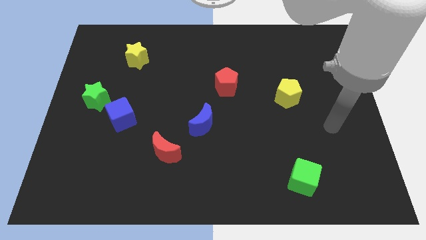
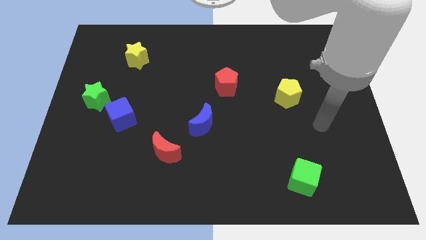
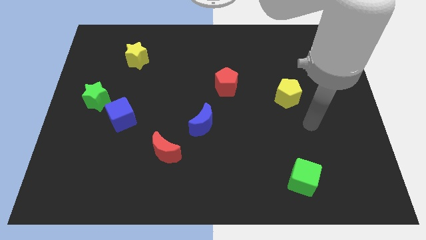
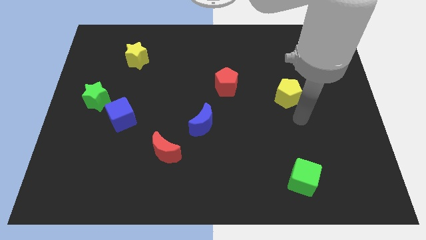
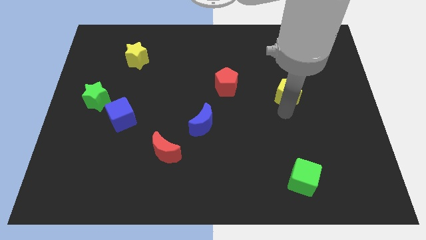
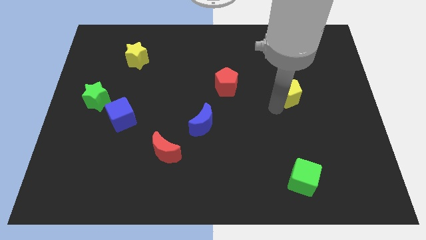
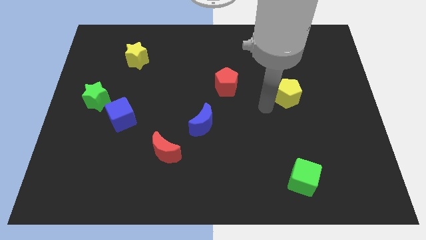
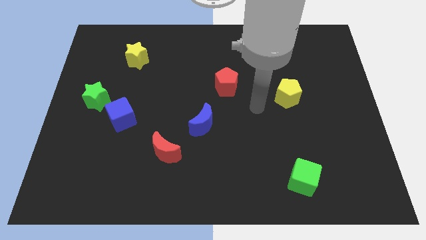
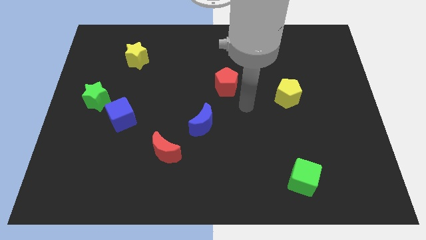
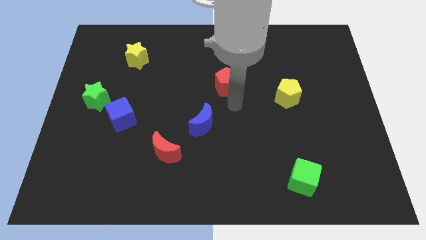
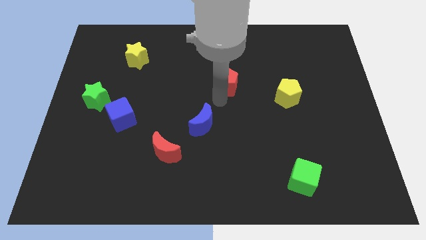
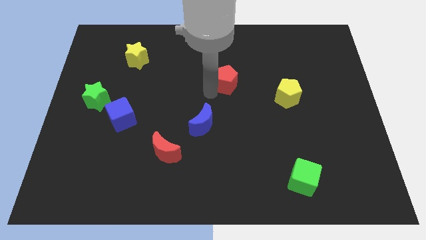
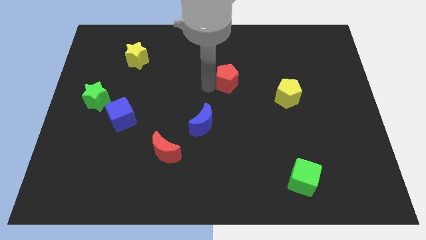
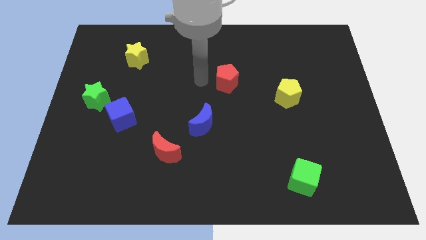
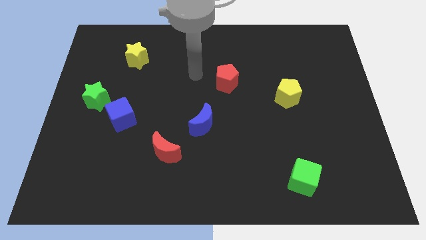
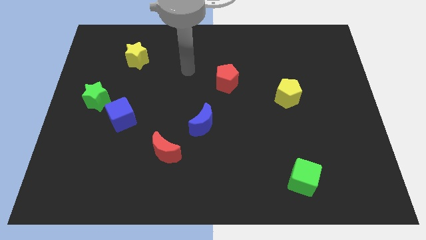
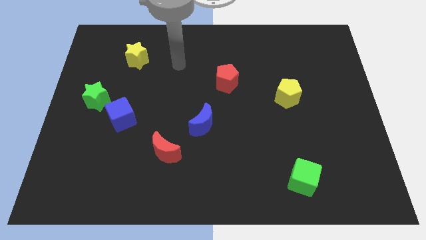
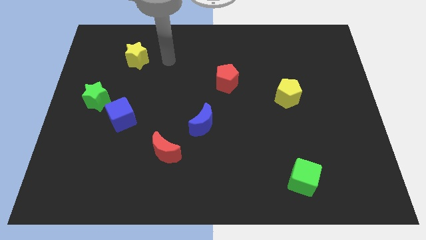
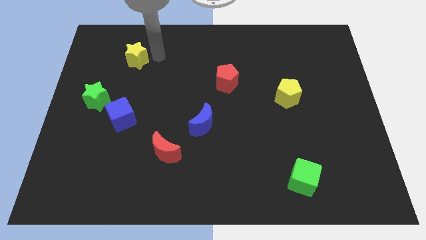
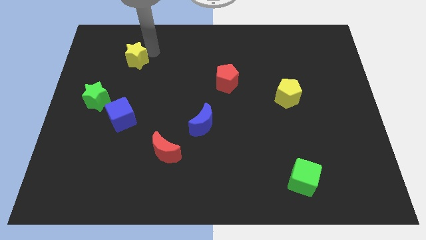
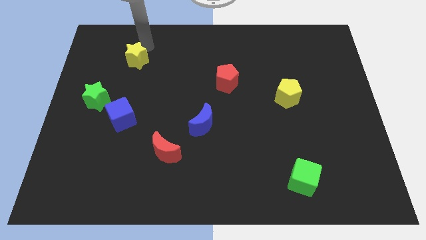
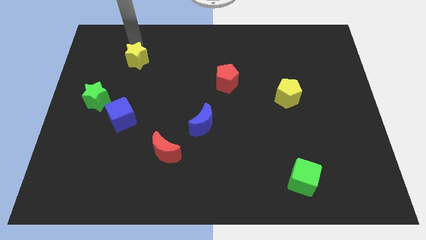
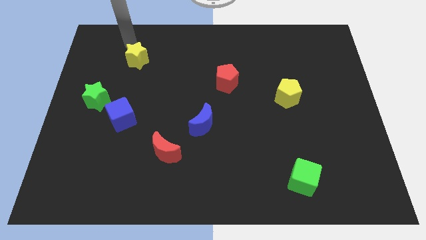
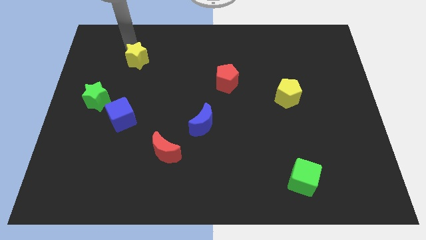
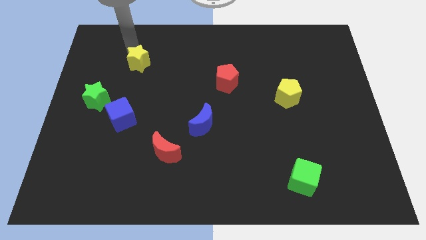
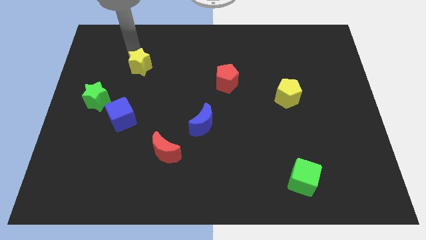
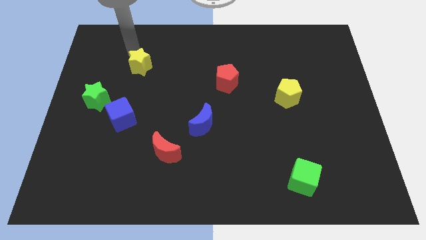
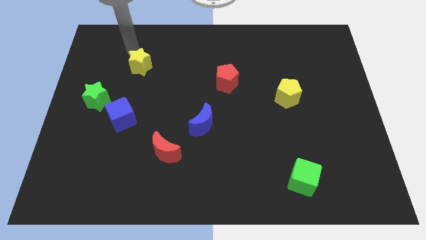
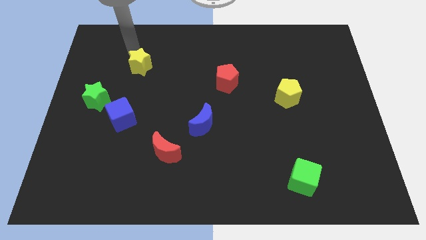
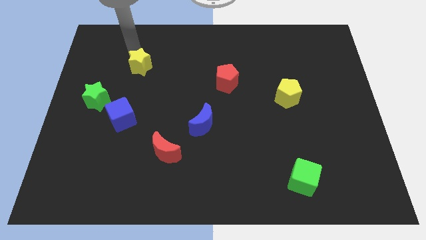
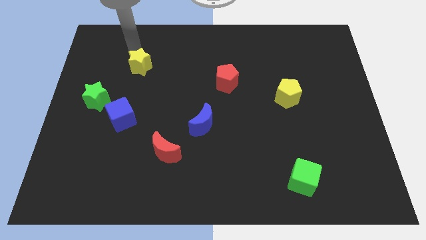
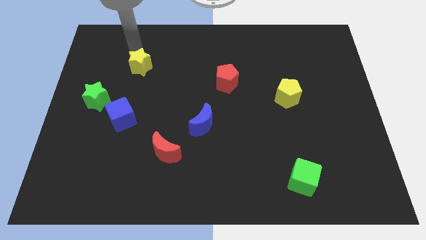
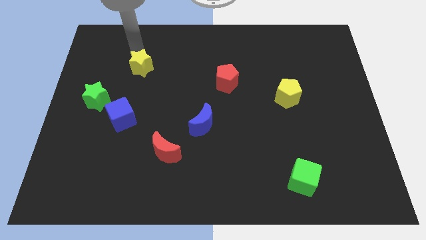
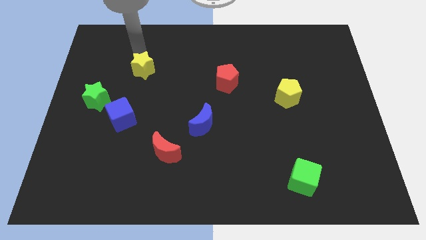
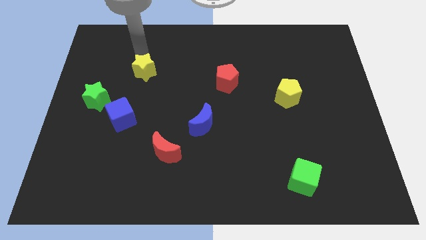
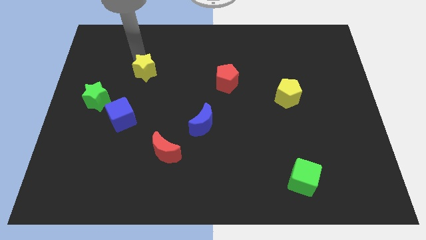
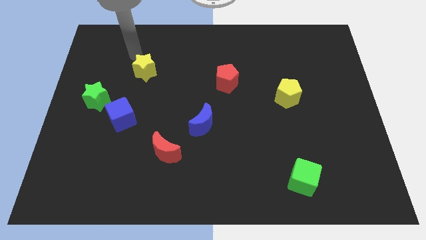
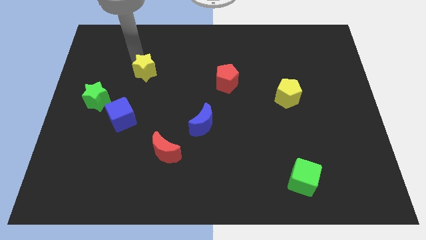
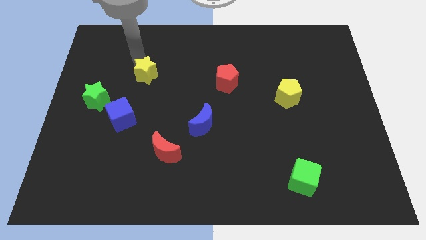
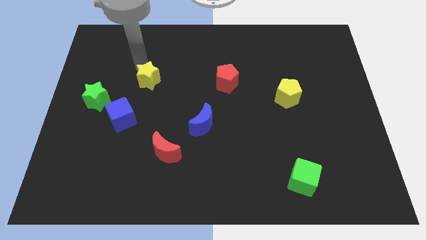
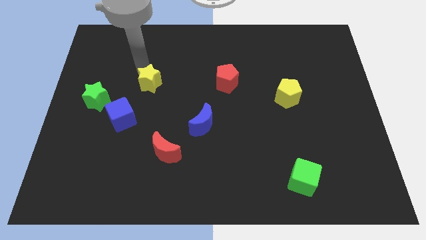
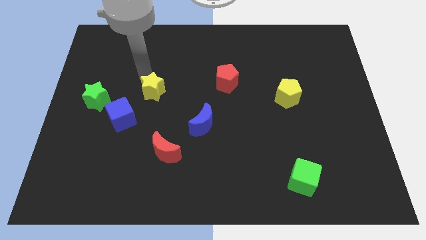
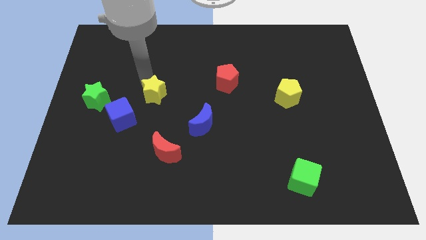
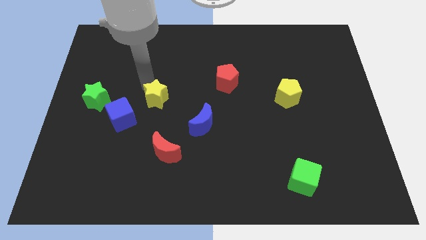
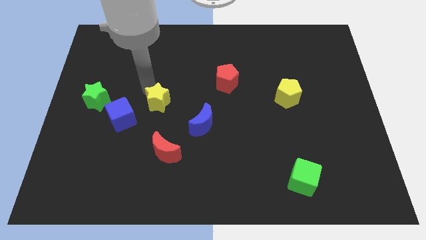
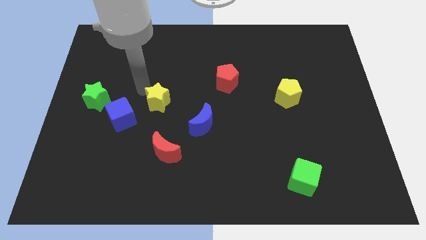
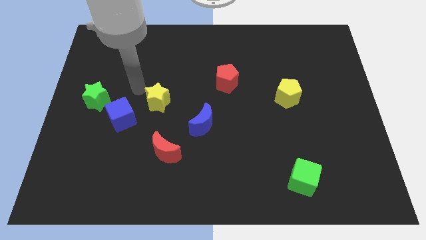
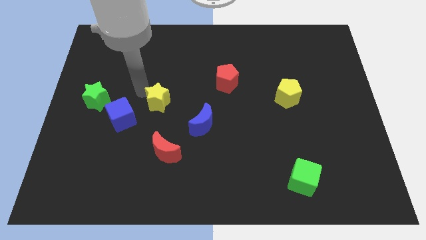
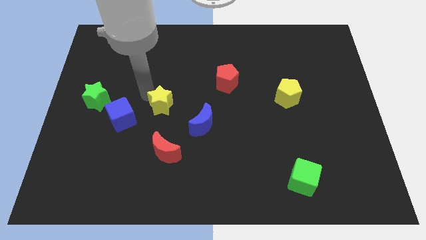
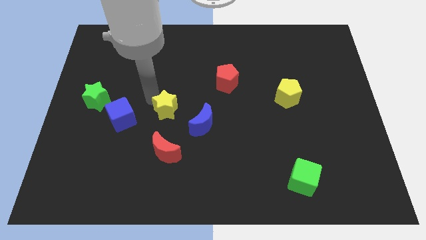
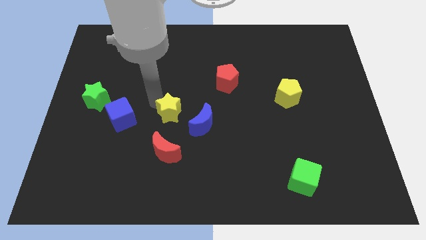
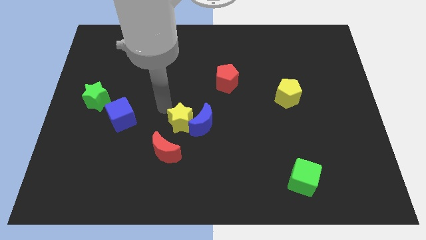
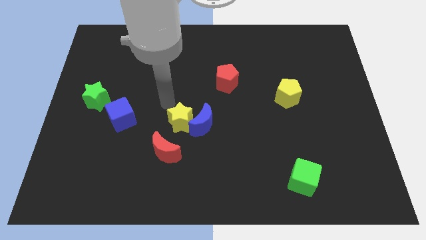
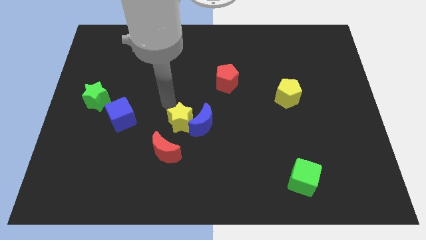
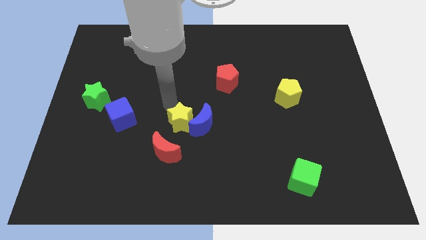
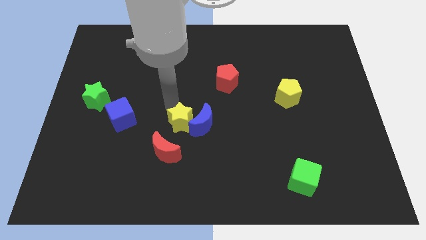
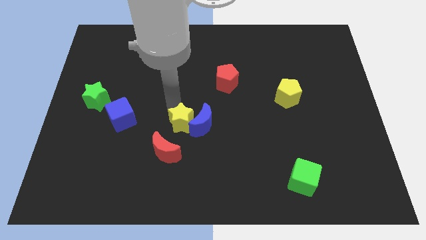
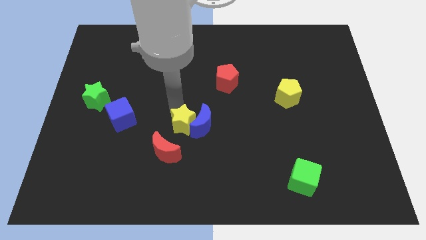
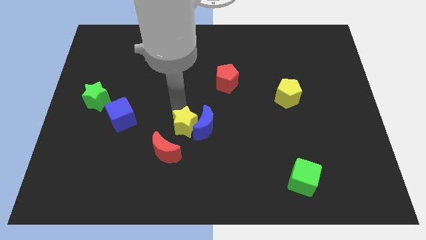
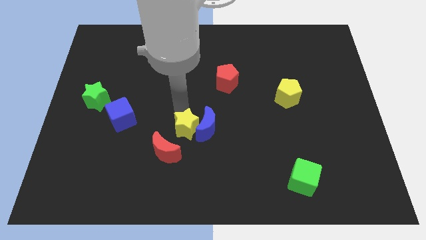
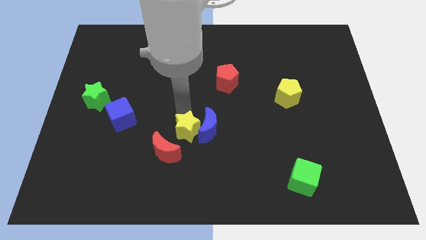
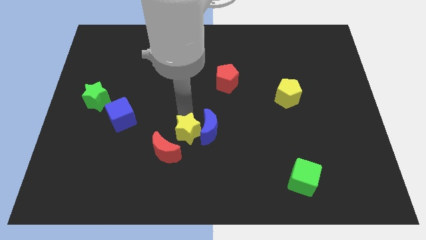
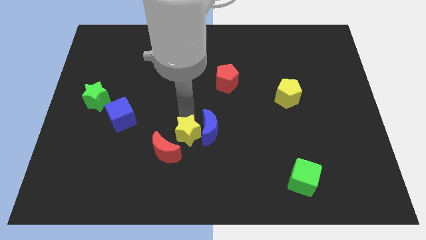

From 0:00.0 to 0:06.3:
put the yellow star just right of the red moon

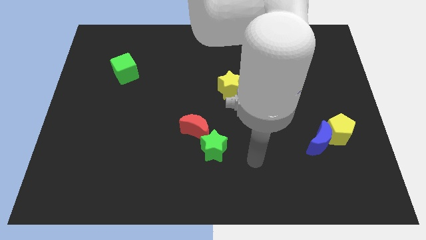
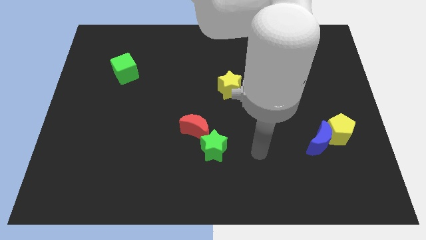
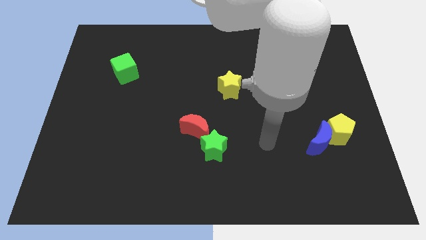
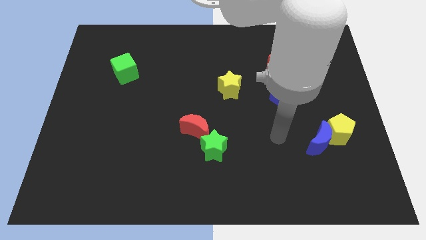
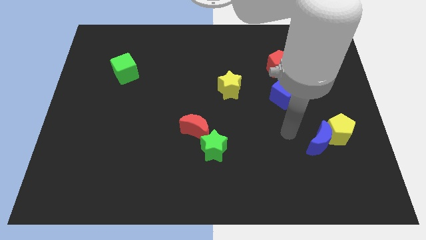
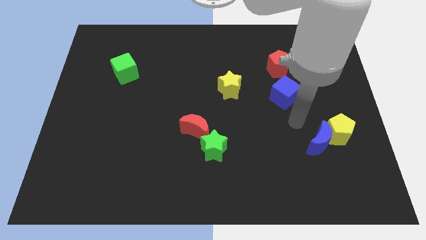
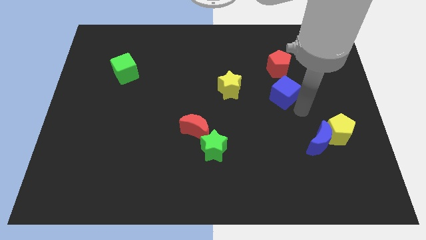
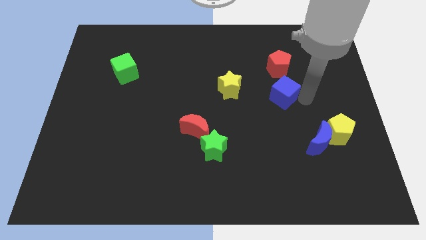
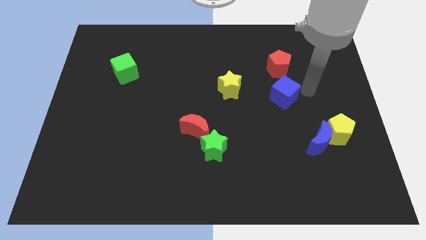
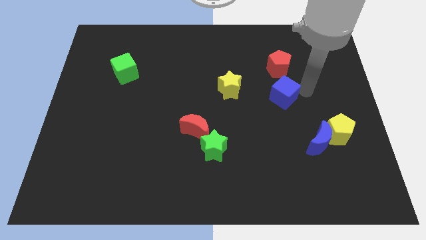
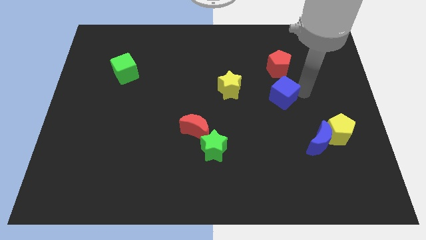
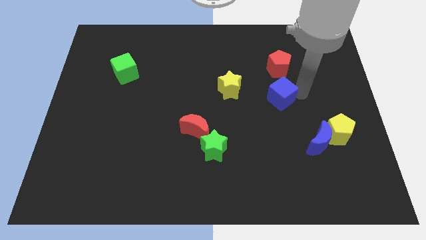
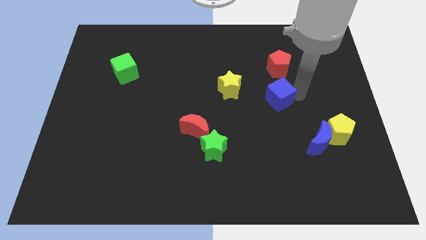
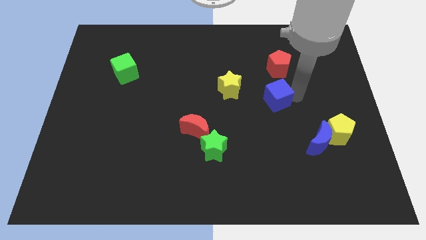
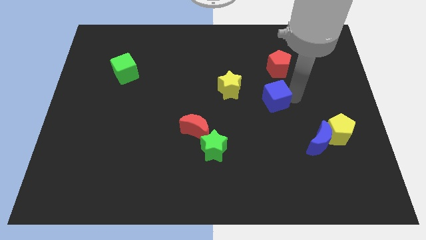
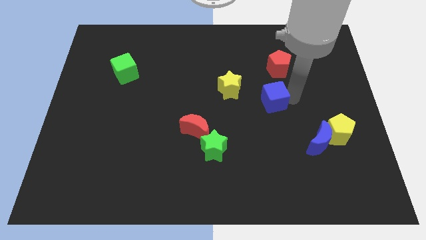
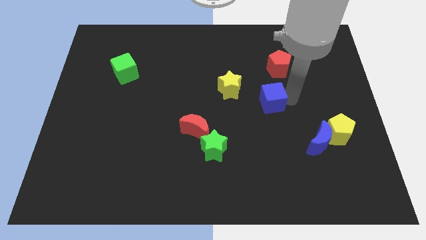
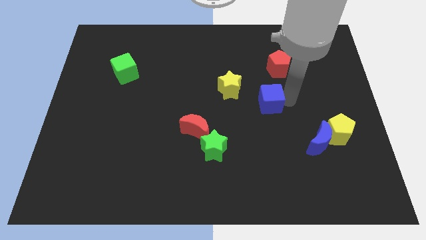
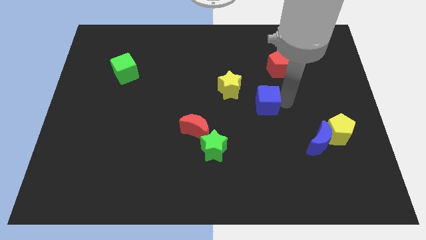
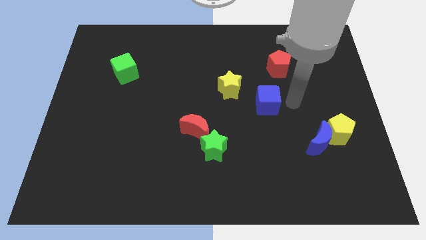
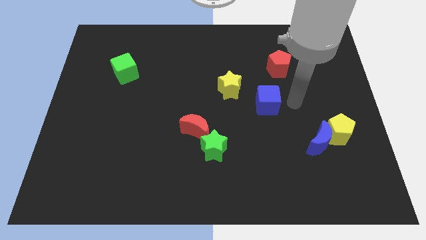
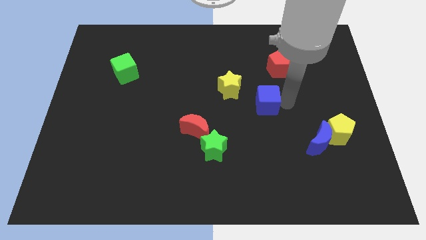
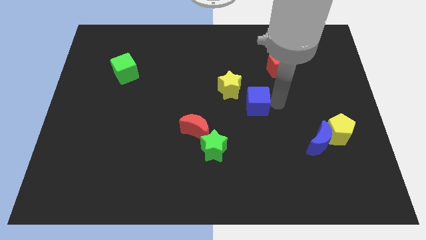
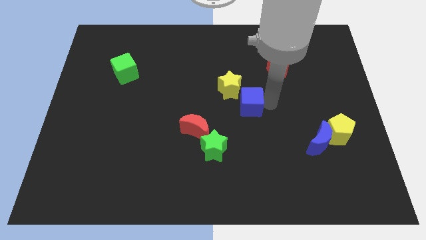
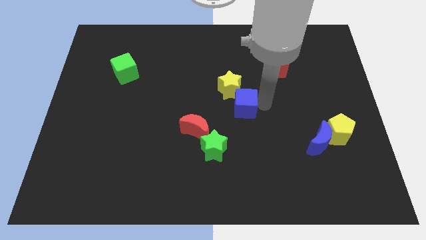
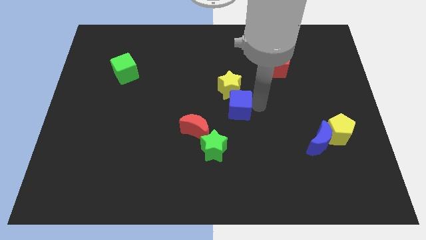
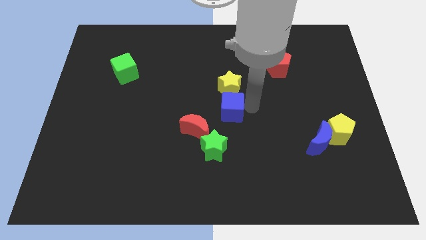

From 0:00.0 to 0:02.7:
push the blue cube diagonally down and to the left of the yellow star
